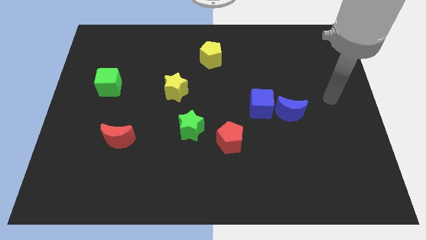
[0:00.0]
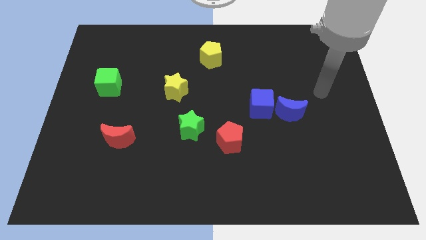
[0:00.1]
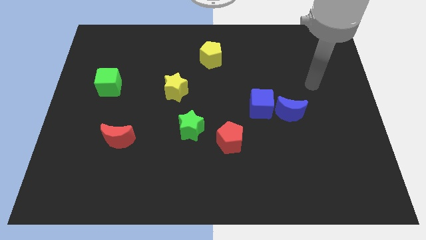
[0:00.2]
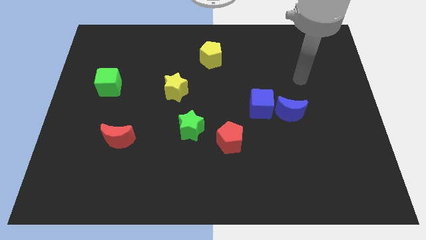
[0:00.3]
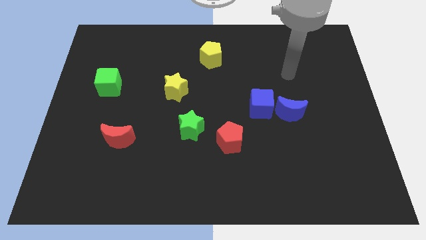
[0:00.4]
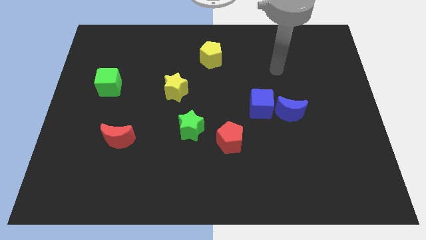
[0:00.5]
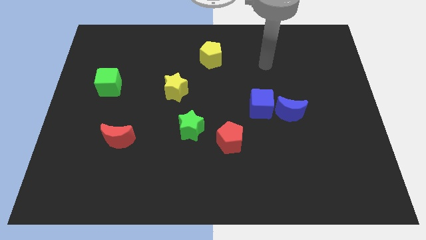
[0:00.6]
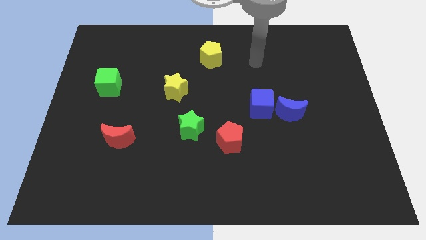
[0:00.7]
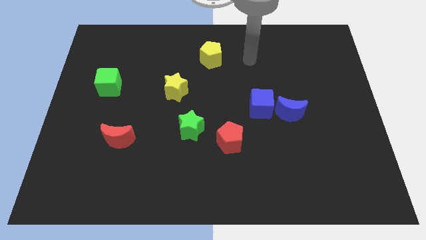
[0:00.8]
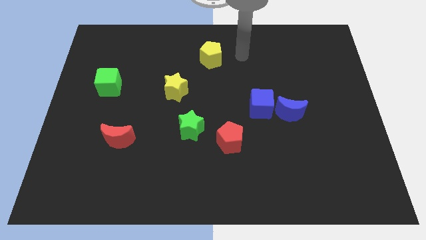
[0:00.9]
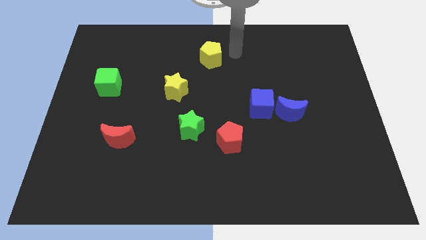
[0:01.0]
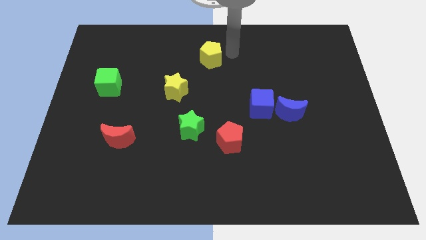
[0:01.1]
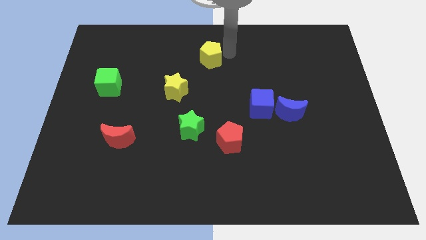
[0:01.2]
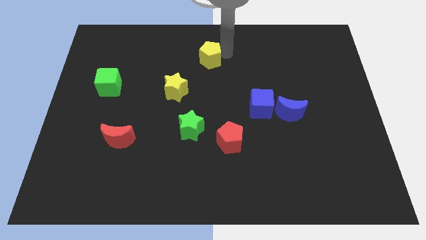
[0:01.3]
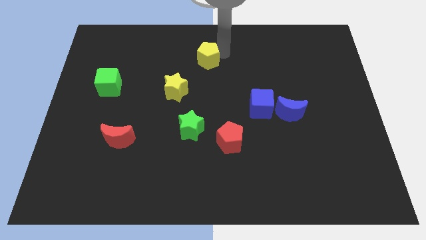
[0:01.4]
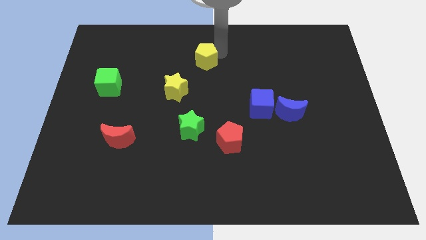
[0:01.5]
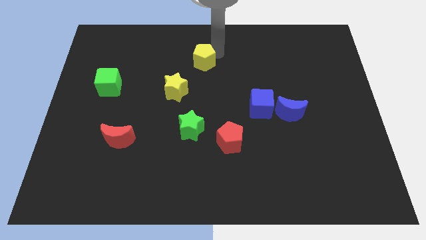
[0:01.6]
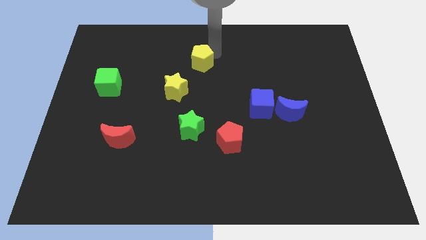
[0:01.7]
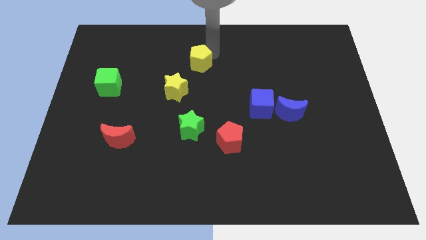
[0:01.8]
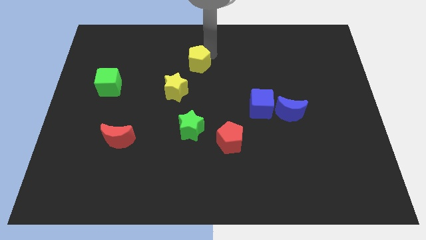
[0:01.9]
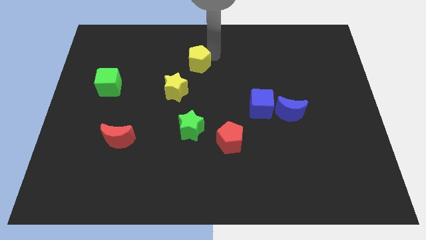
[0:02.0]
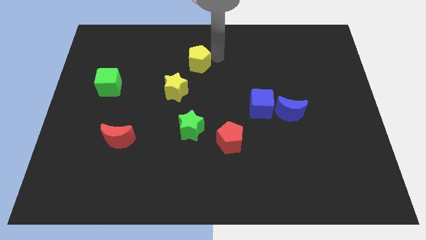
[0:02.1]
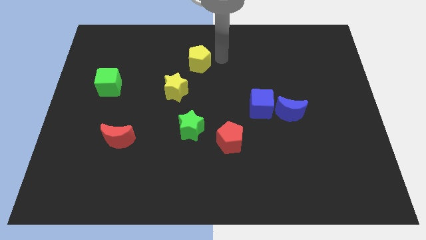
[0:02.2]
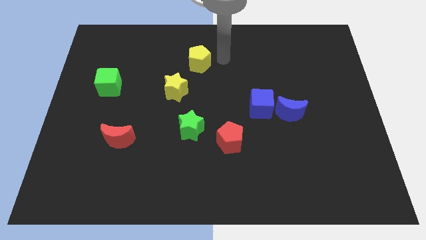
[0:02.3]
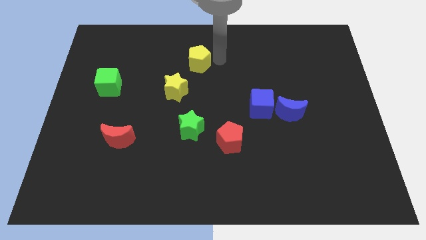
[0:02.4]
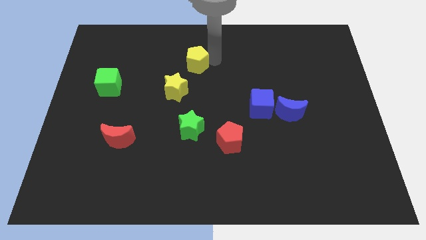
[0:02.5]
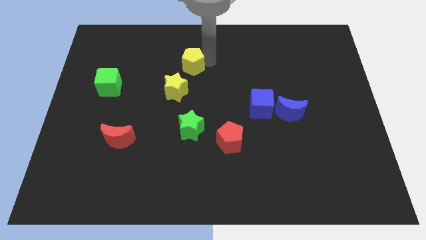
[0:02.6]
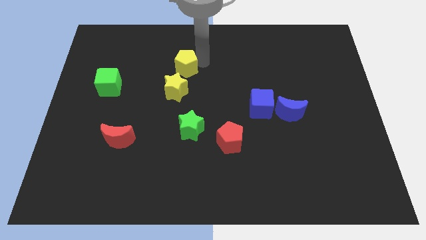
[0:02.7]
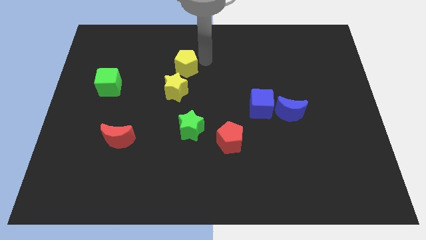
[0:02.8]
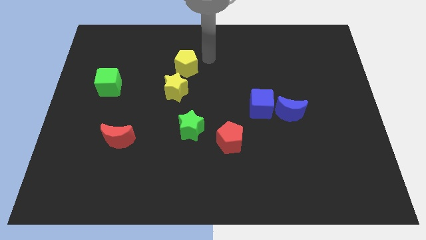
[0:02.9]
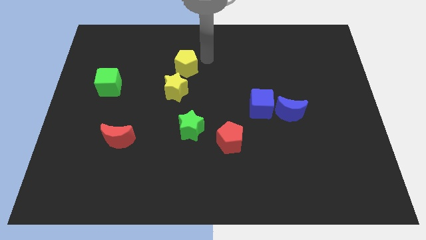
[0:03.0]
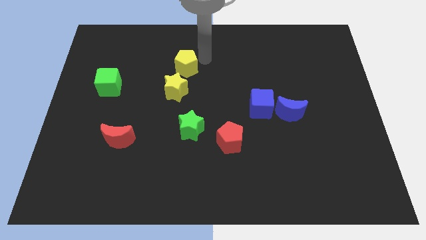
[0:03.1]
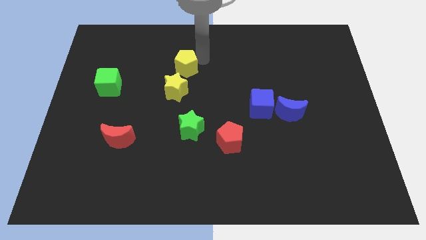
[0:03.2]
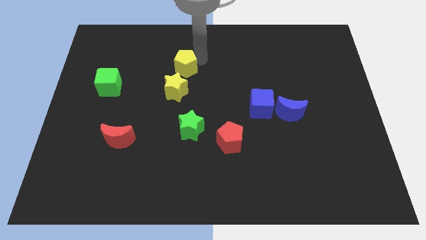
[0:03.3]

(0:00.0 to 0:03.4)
slide the yellow pentagon down and to the left a little bit

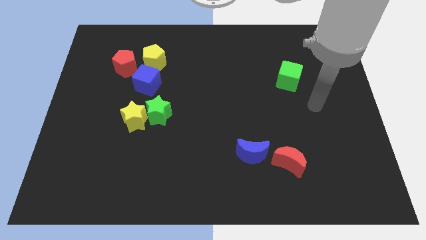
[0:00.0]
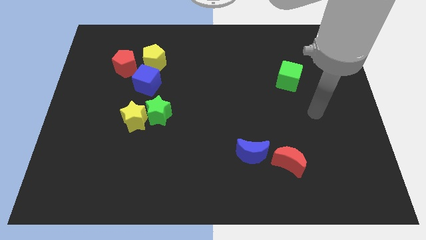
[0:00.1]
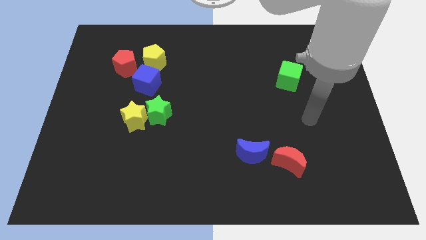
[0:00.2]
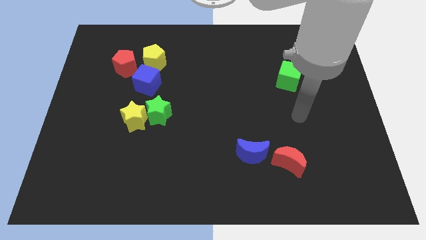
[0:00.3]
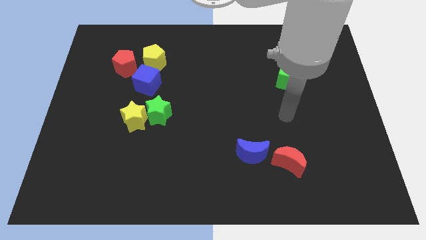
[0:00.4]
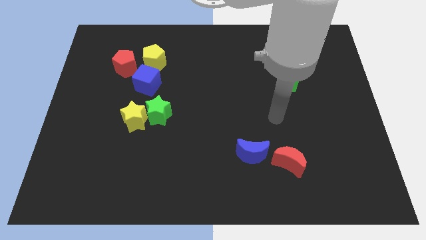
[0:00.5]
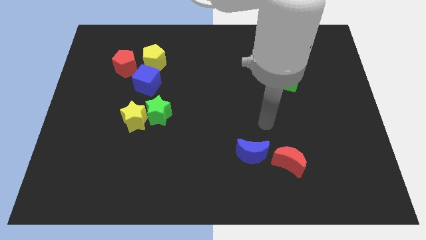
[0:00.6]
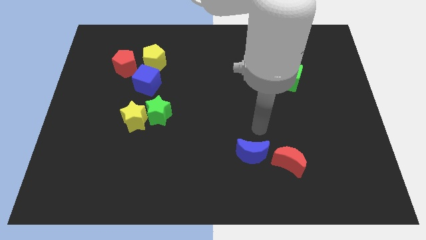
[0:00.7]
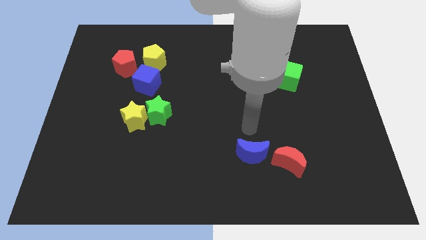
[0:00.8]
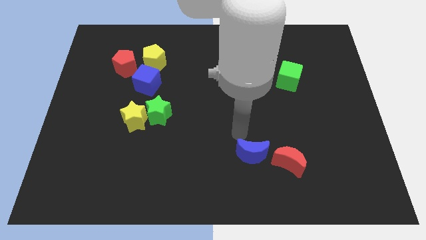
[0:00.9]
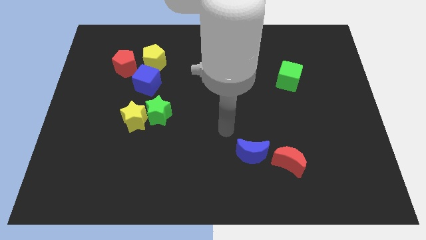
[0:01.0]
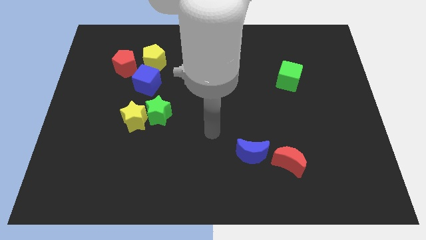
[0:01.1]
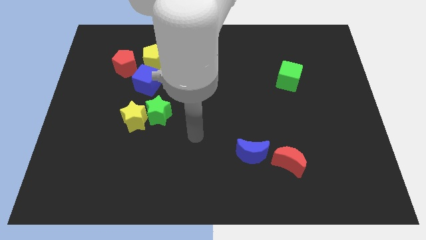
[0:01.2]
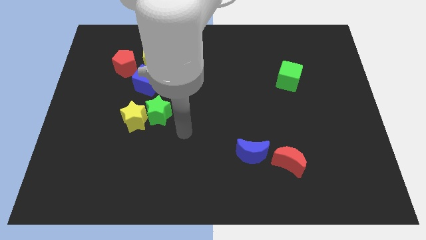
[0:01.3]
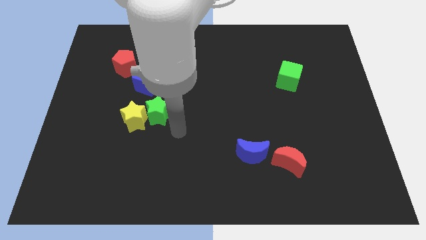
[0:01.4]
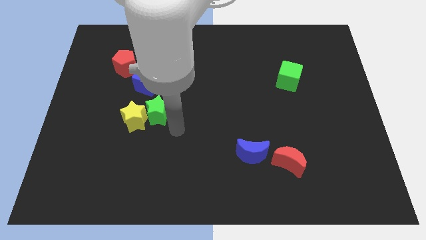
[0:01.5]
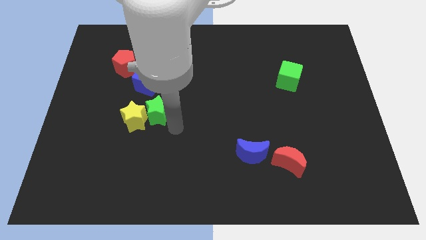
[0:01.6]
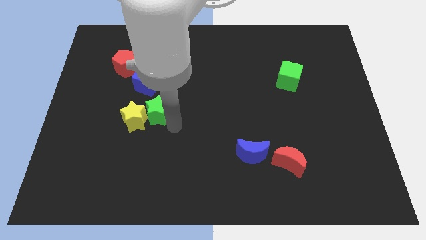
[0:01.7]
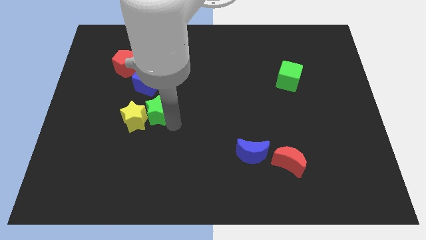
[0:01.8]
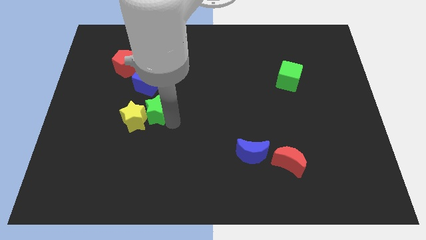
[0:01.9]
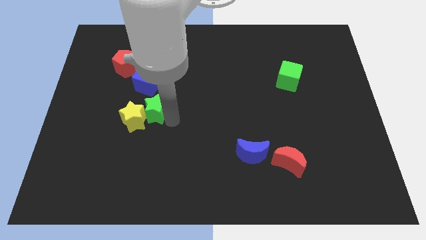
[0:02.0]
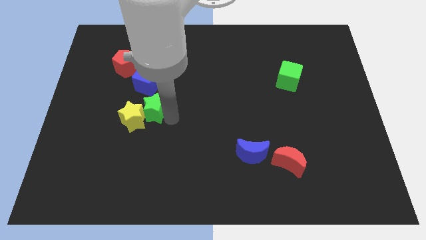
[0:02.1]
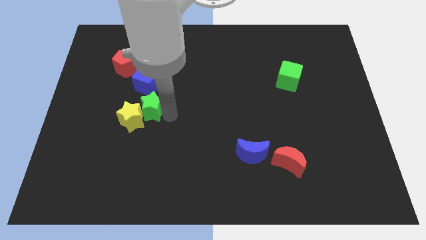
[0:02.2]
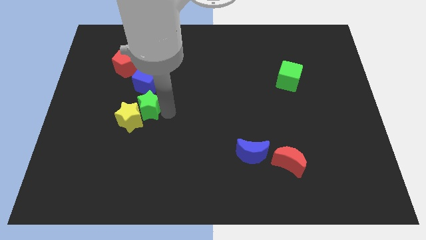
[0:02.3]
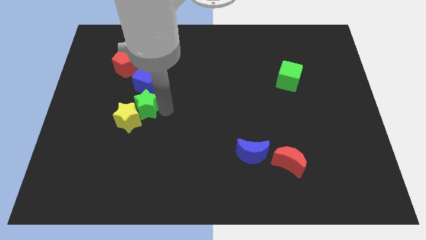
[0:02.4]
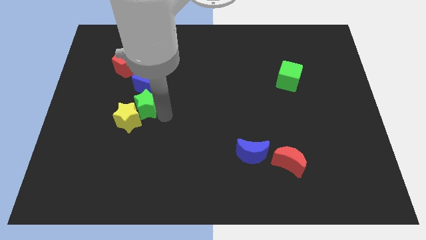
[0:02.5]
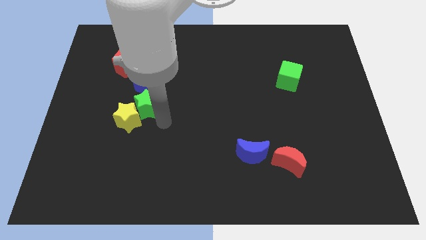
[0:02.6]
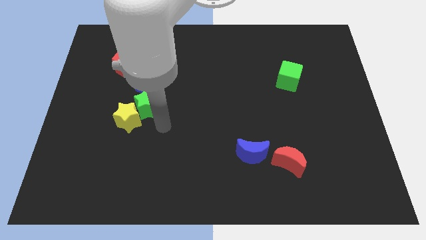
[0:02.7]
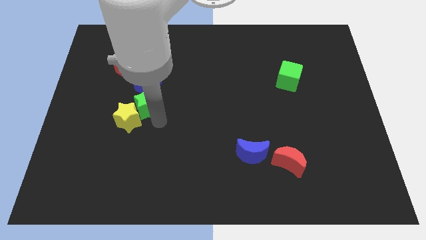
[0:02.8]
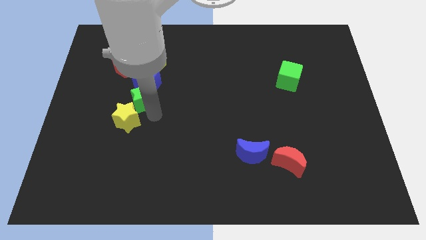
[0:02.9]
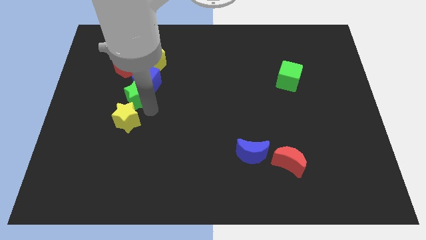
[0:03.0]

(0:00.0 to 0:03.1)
push the green star upwards and to the left a little

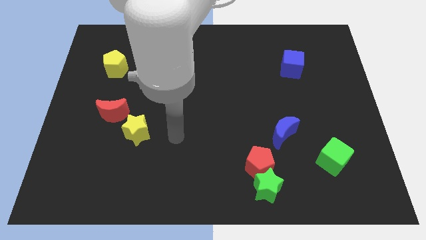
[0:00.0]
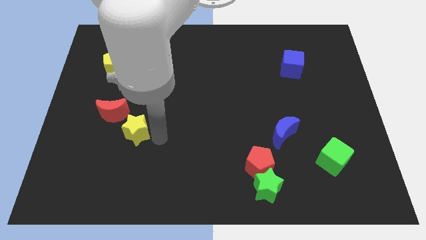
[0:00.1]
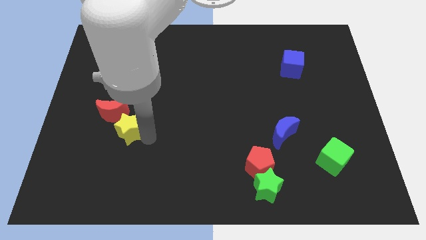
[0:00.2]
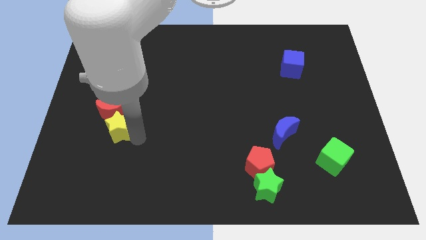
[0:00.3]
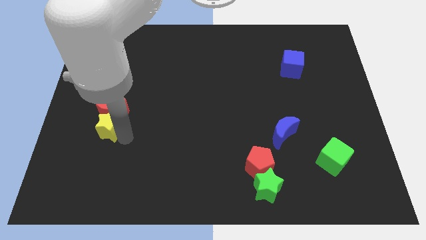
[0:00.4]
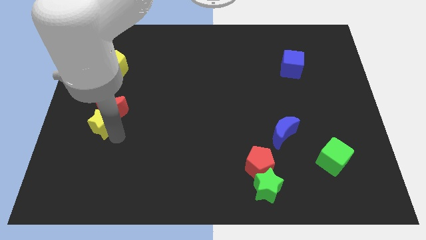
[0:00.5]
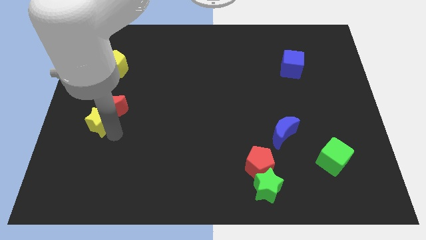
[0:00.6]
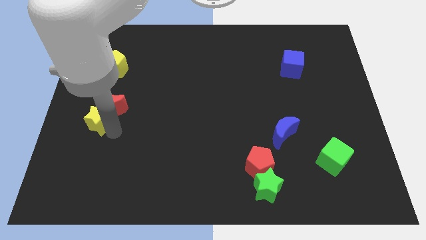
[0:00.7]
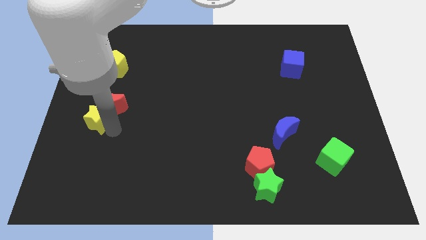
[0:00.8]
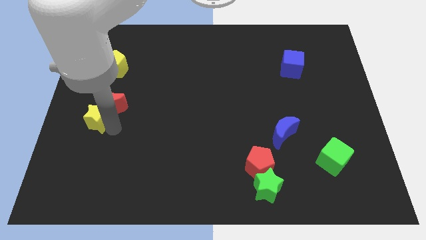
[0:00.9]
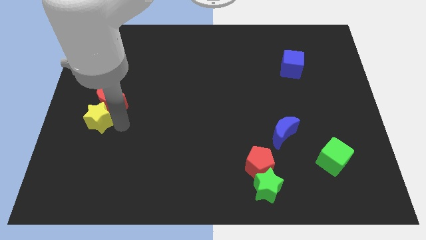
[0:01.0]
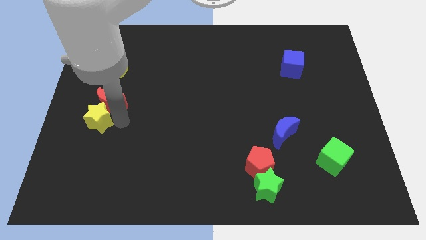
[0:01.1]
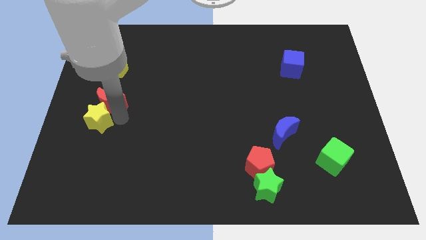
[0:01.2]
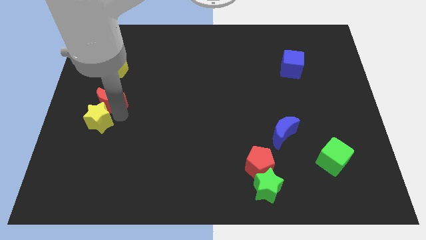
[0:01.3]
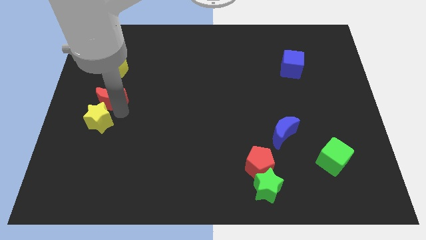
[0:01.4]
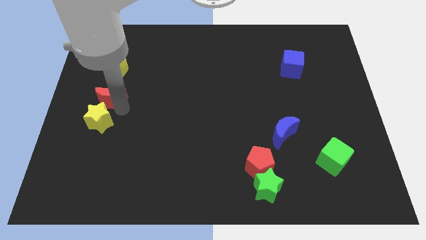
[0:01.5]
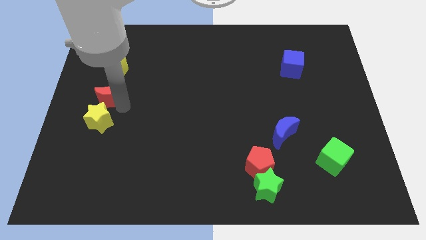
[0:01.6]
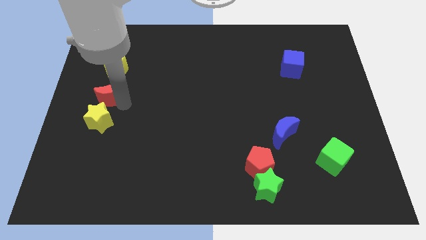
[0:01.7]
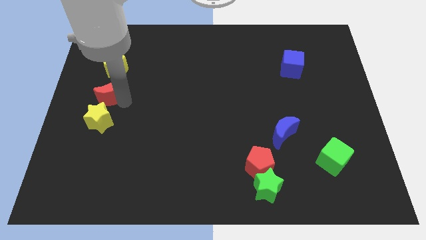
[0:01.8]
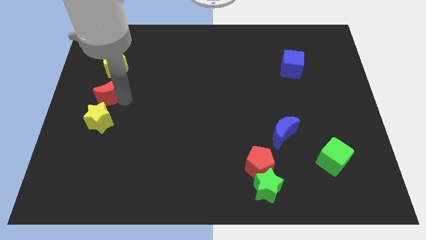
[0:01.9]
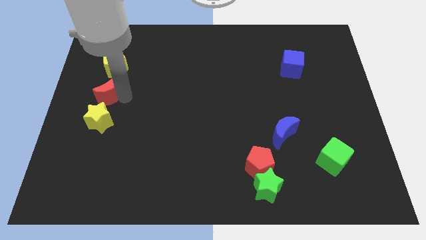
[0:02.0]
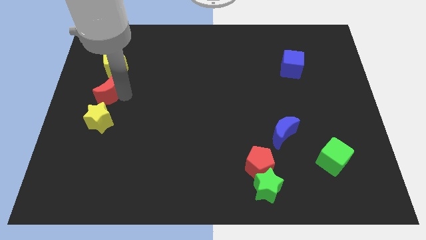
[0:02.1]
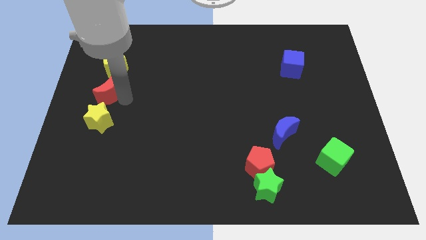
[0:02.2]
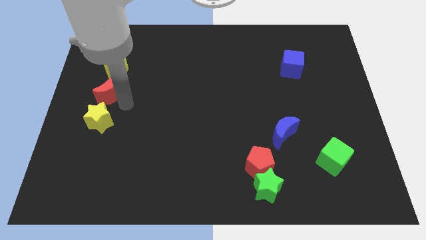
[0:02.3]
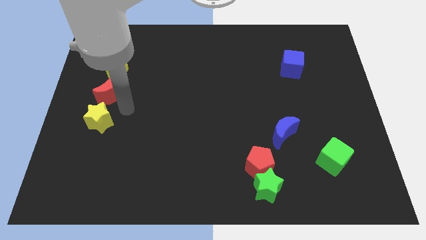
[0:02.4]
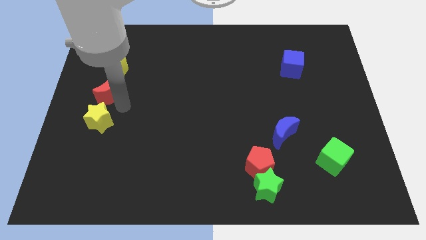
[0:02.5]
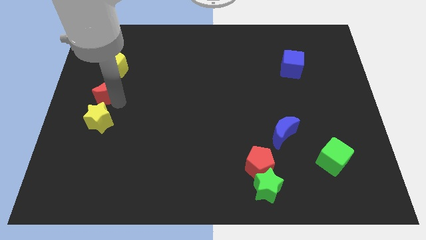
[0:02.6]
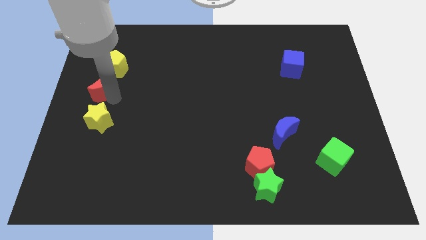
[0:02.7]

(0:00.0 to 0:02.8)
slightly slide the red moon upwards
